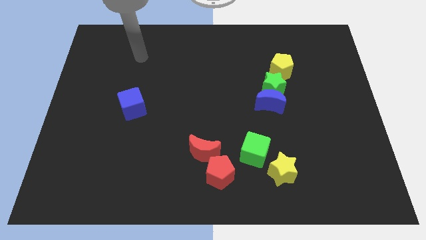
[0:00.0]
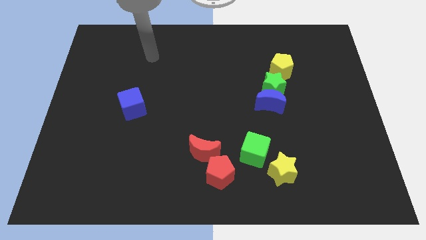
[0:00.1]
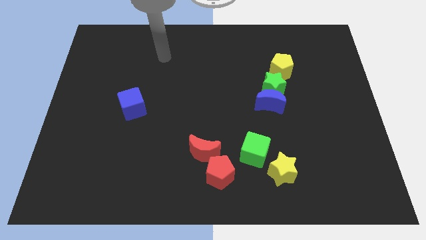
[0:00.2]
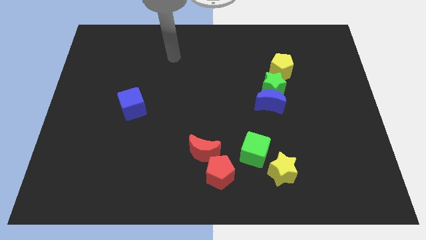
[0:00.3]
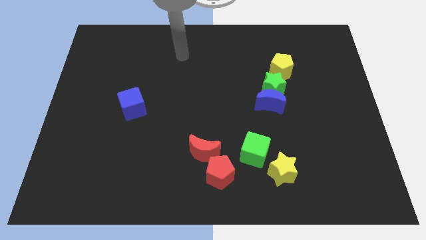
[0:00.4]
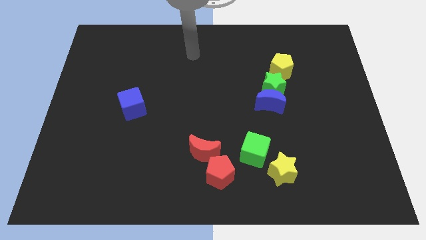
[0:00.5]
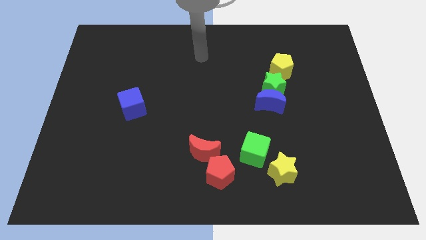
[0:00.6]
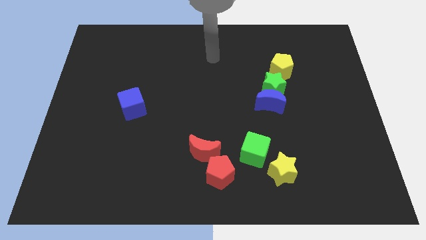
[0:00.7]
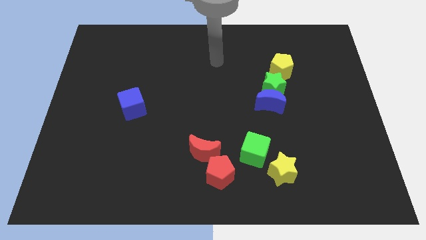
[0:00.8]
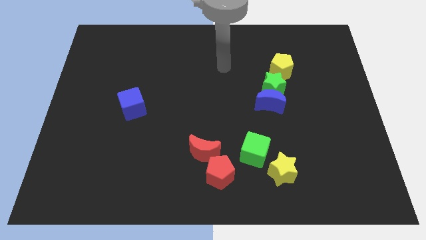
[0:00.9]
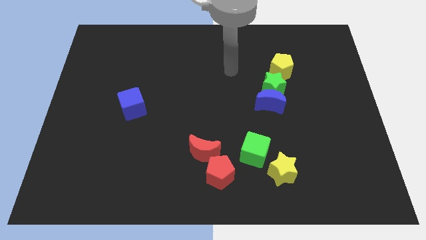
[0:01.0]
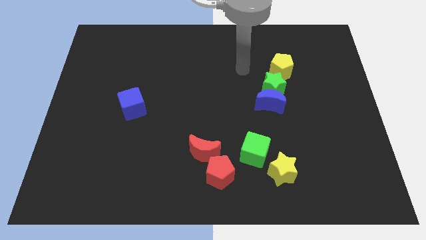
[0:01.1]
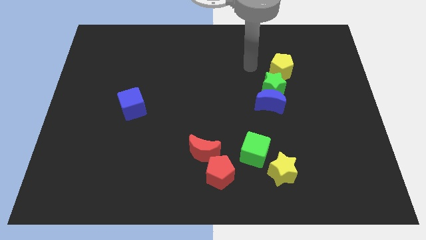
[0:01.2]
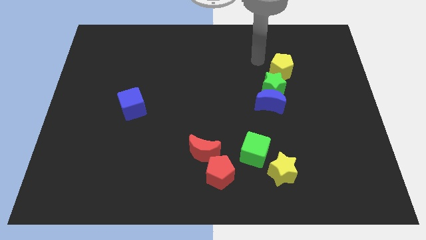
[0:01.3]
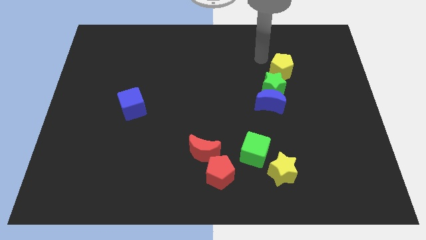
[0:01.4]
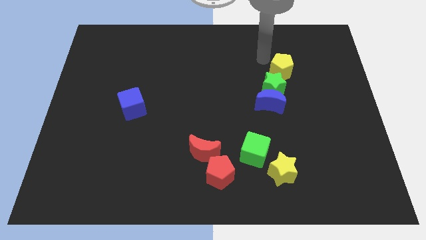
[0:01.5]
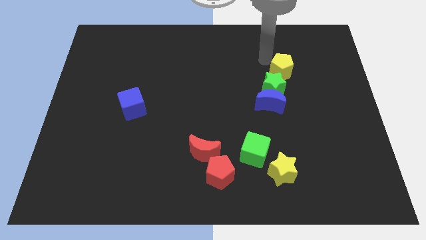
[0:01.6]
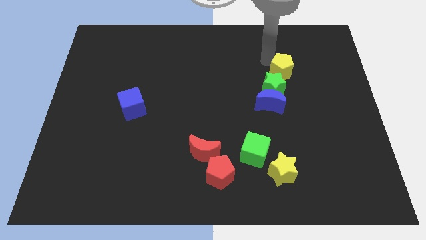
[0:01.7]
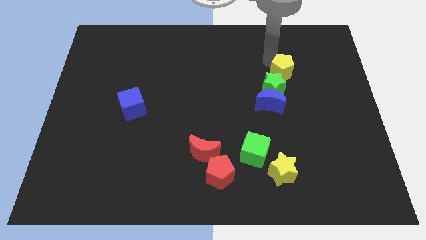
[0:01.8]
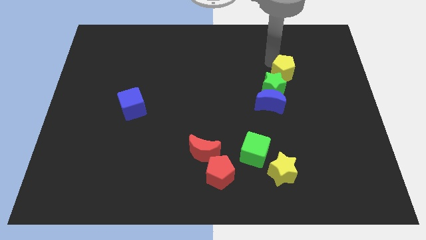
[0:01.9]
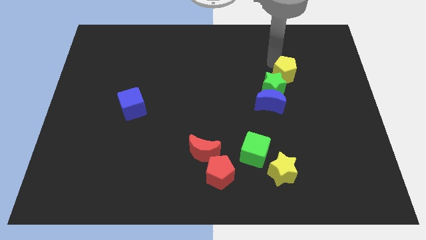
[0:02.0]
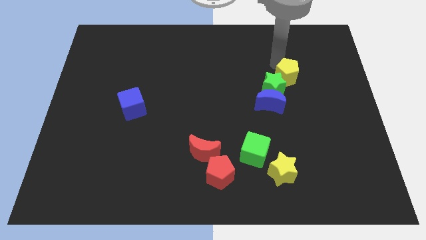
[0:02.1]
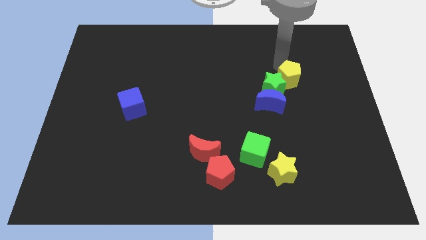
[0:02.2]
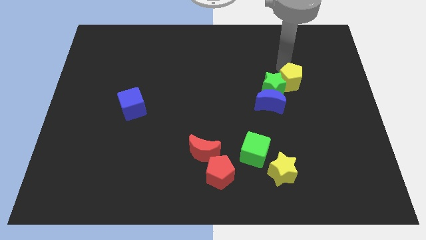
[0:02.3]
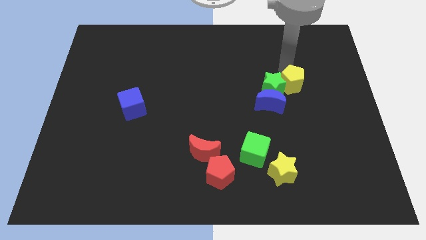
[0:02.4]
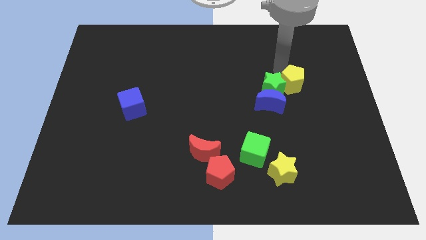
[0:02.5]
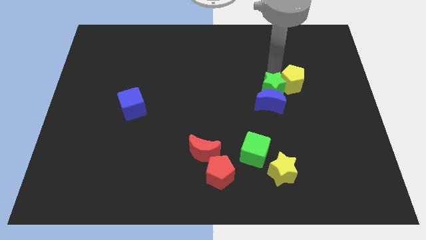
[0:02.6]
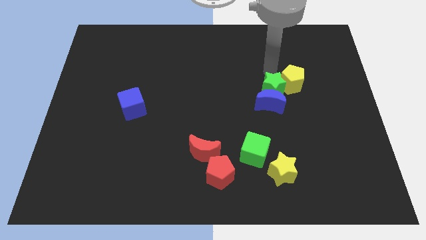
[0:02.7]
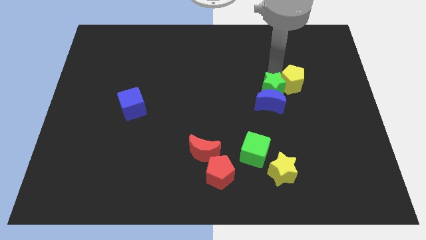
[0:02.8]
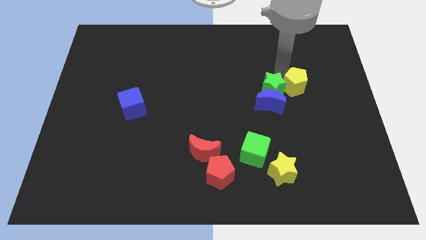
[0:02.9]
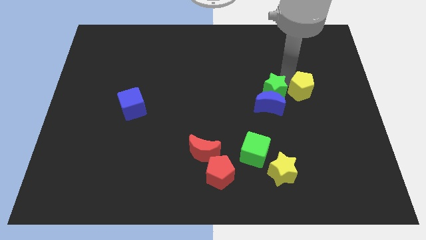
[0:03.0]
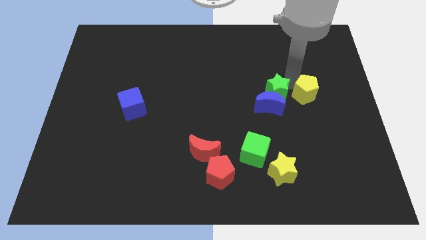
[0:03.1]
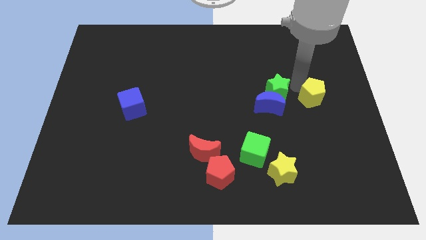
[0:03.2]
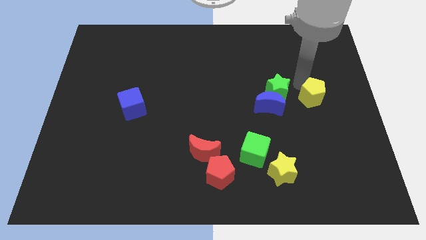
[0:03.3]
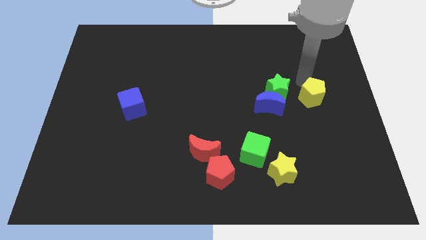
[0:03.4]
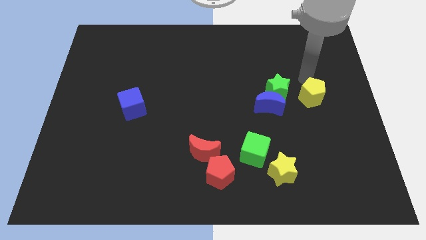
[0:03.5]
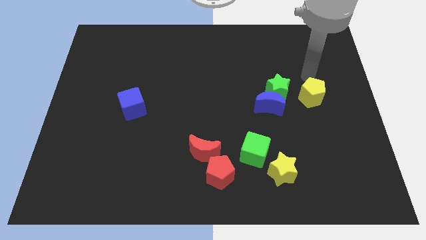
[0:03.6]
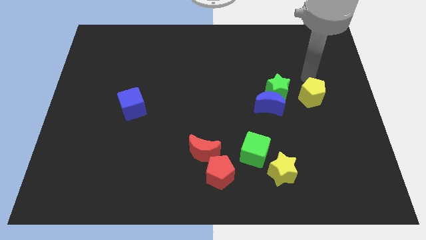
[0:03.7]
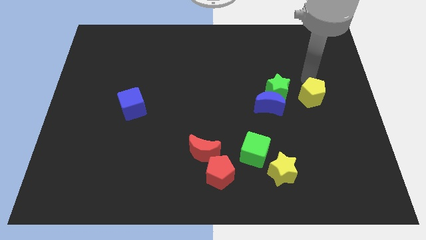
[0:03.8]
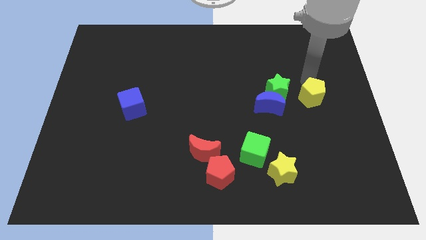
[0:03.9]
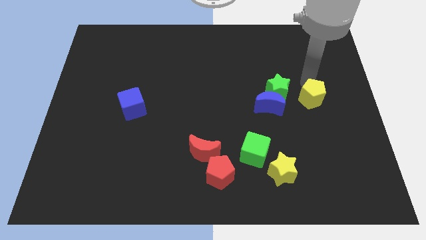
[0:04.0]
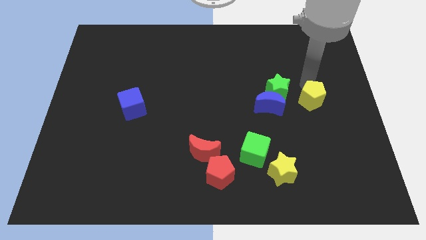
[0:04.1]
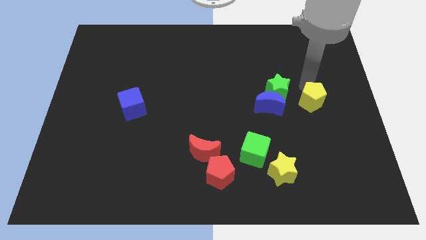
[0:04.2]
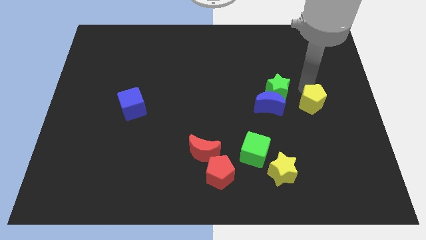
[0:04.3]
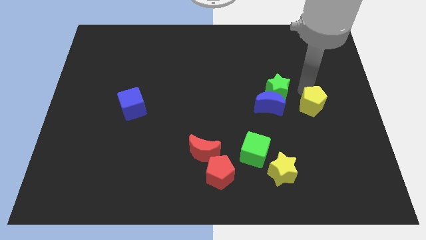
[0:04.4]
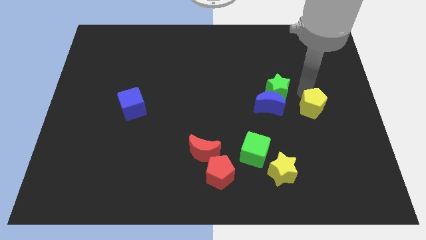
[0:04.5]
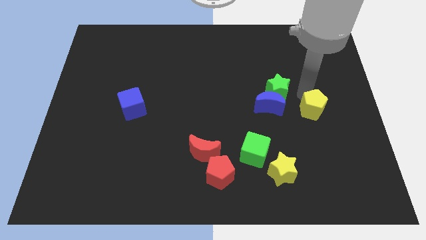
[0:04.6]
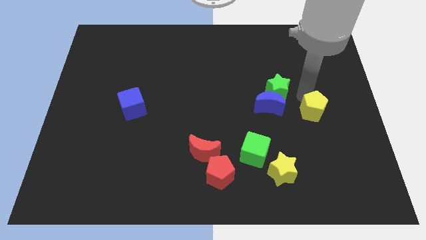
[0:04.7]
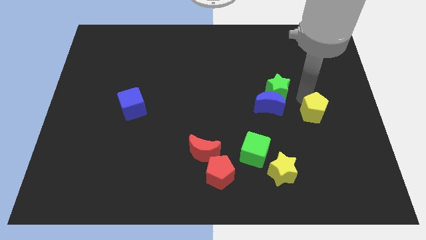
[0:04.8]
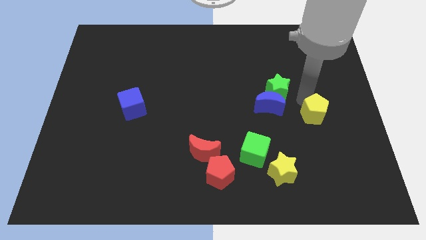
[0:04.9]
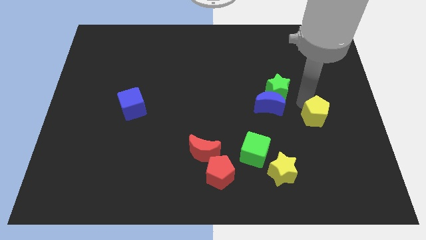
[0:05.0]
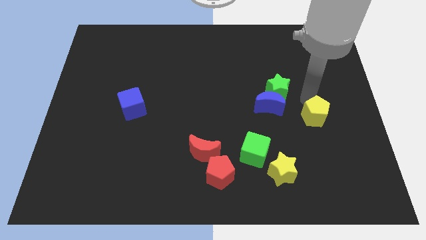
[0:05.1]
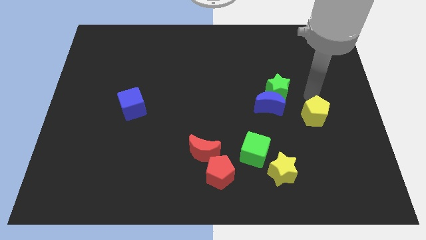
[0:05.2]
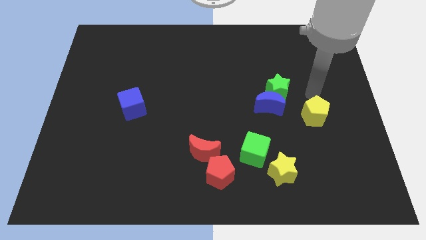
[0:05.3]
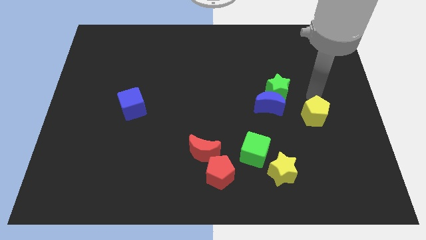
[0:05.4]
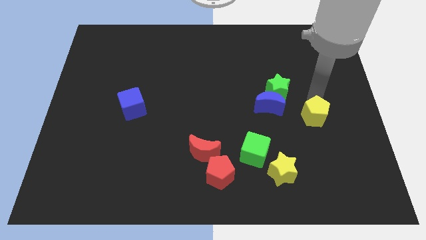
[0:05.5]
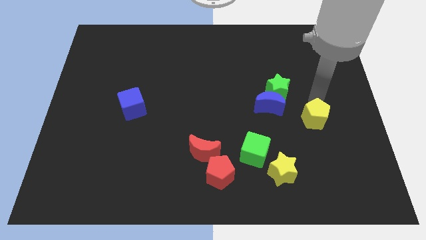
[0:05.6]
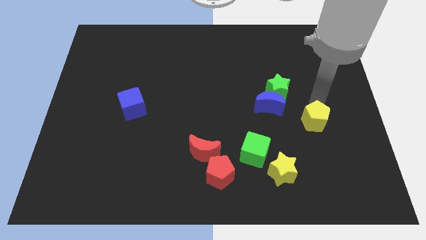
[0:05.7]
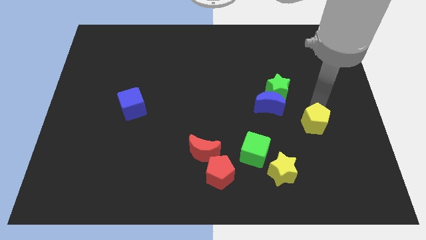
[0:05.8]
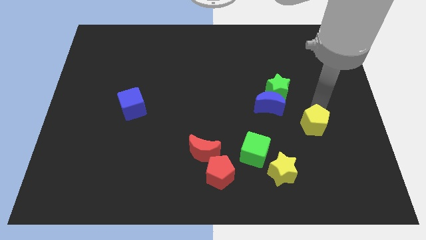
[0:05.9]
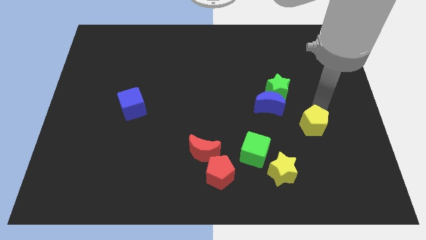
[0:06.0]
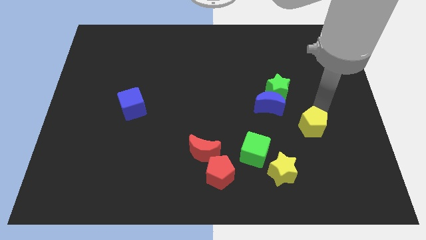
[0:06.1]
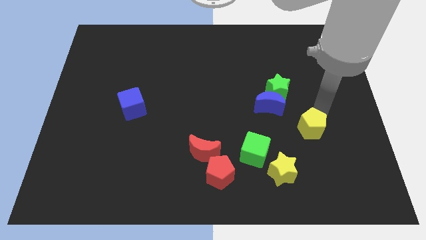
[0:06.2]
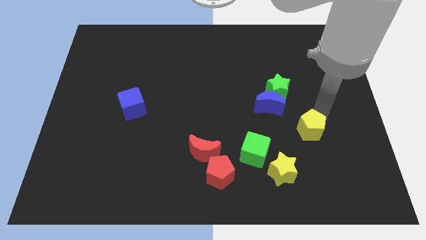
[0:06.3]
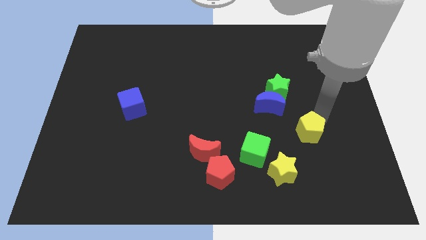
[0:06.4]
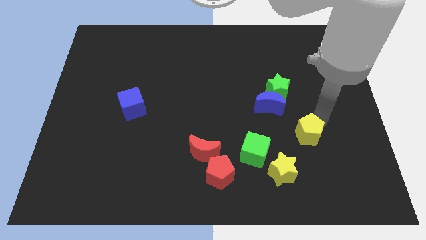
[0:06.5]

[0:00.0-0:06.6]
slide the yellow pentagon to the right side of the green cube

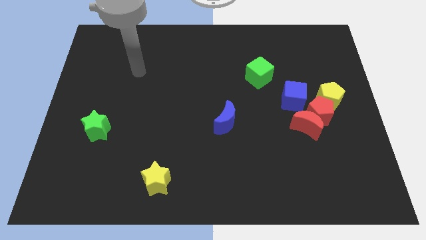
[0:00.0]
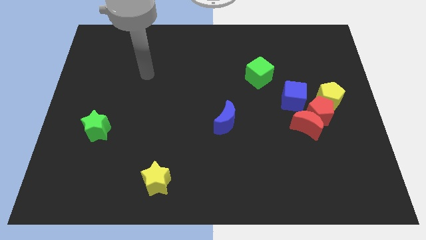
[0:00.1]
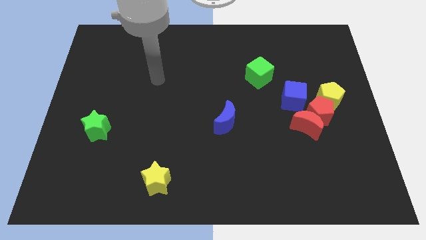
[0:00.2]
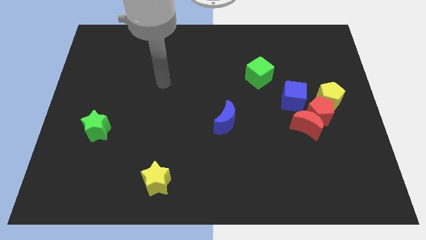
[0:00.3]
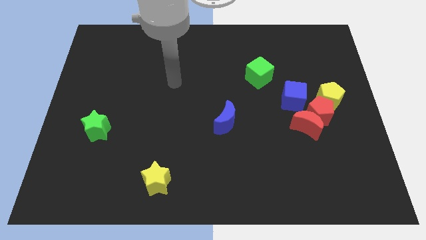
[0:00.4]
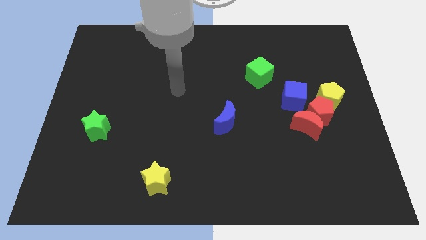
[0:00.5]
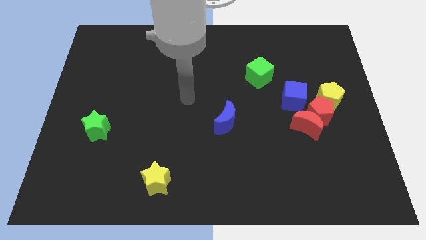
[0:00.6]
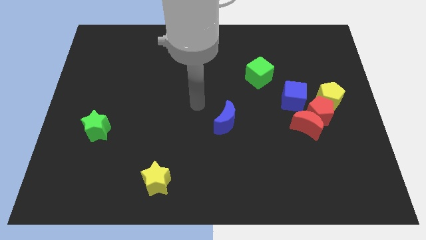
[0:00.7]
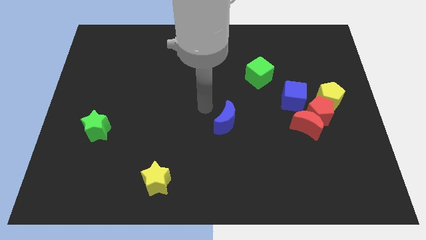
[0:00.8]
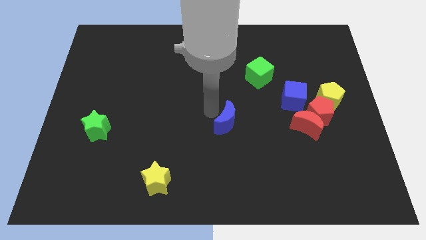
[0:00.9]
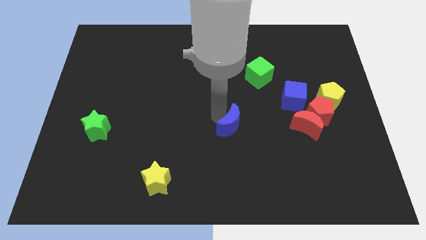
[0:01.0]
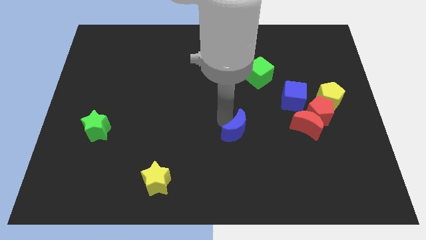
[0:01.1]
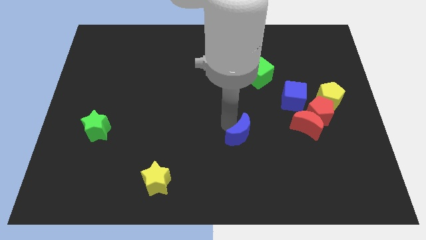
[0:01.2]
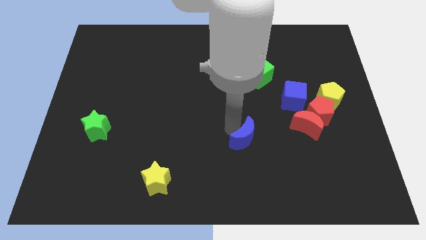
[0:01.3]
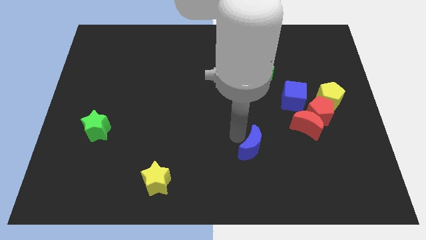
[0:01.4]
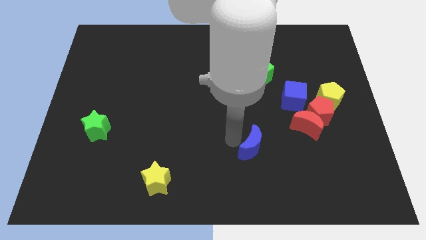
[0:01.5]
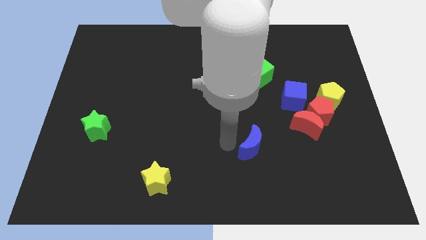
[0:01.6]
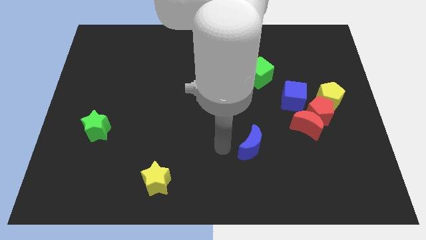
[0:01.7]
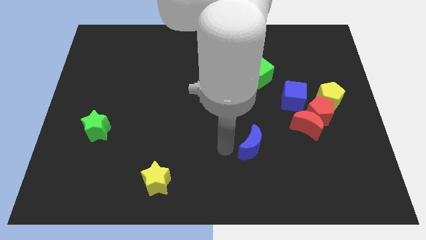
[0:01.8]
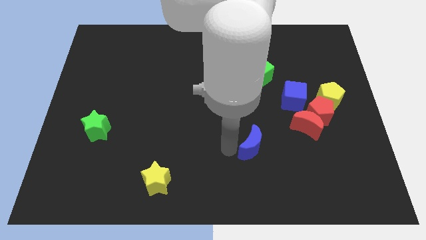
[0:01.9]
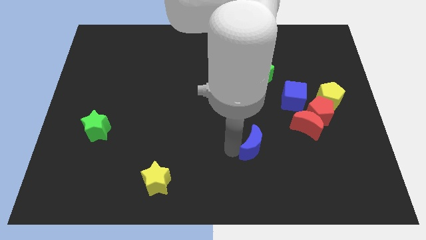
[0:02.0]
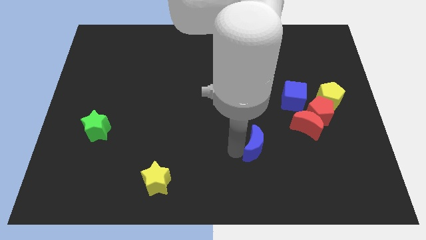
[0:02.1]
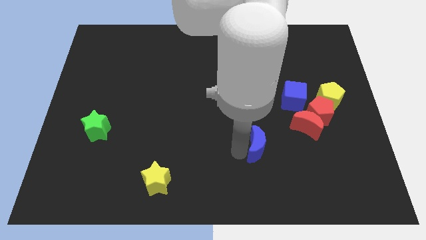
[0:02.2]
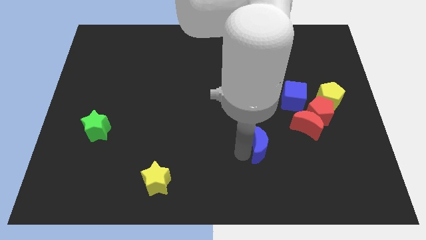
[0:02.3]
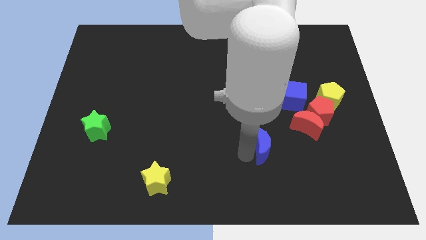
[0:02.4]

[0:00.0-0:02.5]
push the blue moon diagonally down and to the left of the red moon
